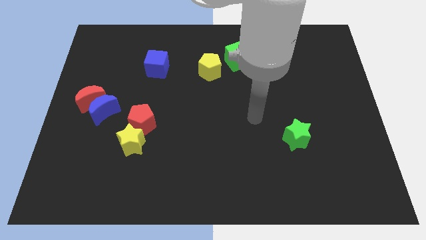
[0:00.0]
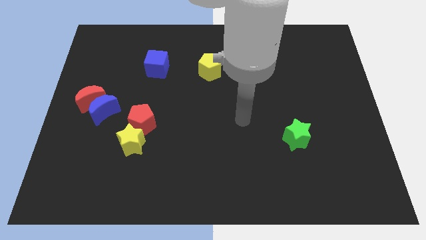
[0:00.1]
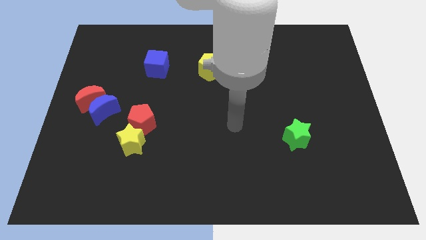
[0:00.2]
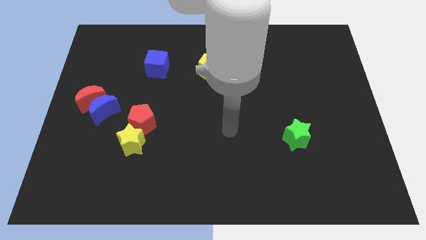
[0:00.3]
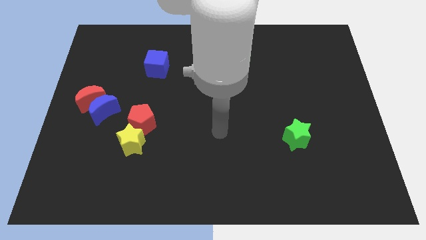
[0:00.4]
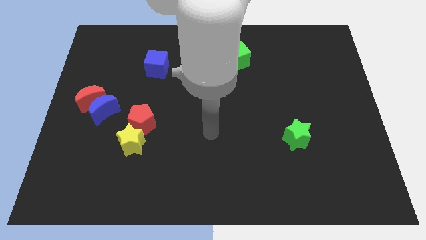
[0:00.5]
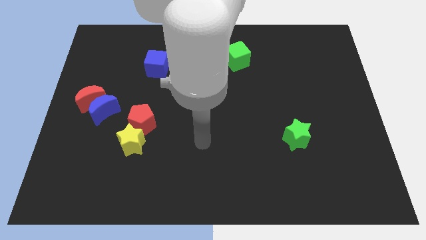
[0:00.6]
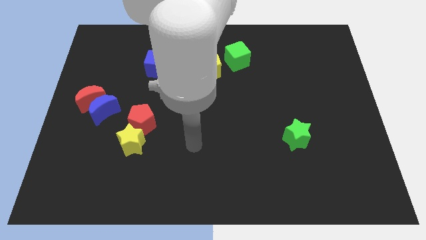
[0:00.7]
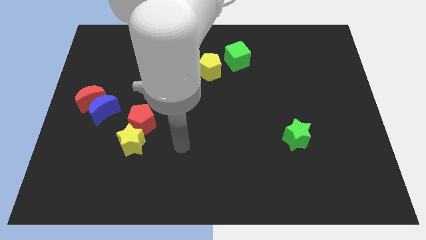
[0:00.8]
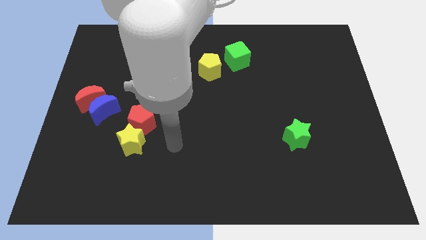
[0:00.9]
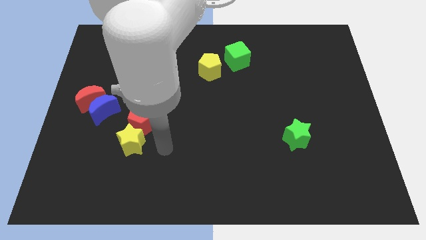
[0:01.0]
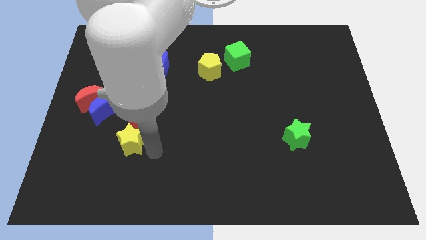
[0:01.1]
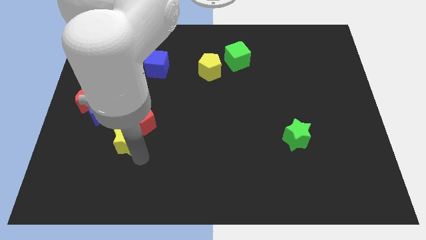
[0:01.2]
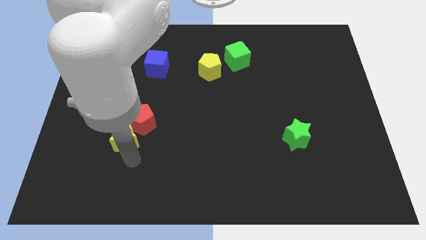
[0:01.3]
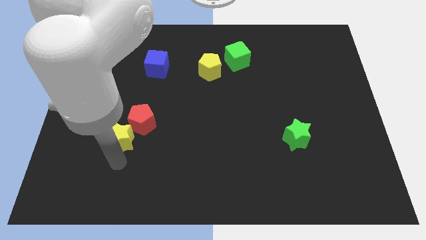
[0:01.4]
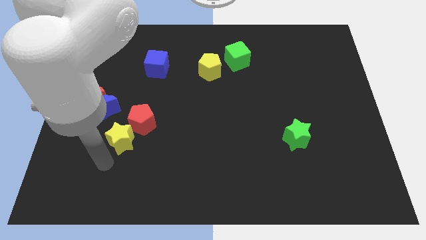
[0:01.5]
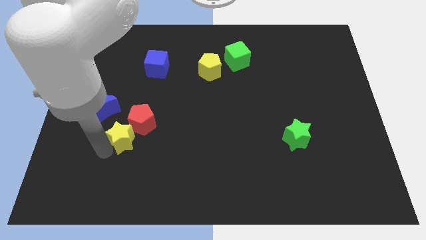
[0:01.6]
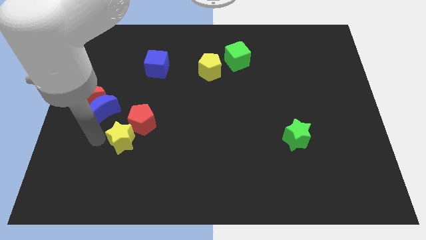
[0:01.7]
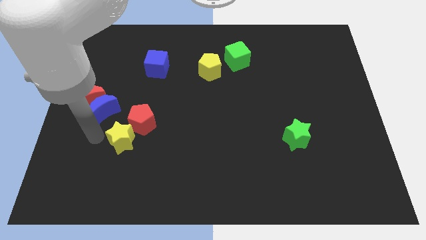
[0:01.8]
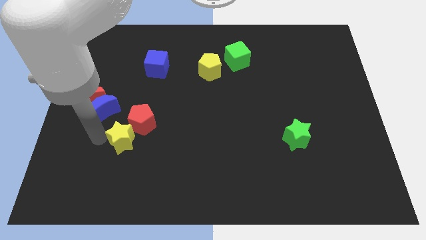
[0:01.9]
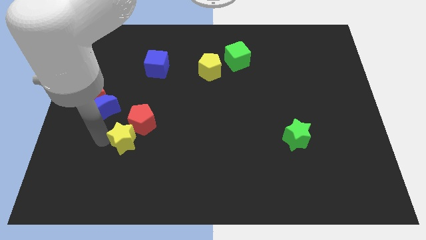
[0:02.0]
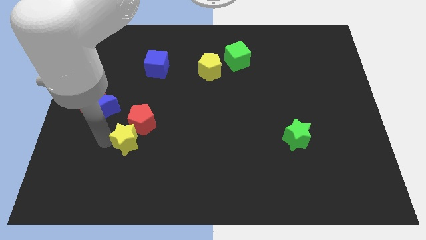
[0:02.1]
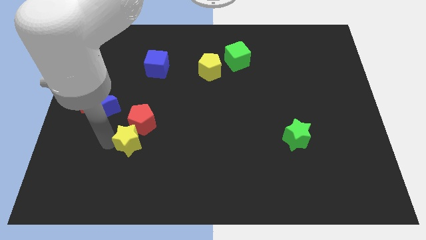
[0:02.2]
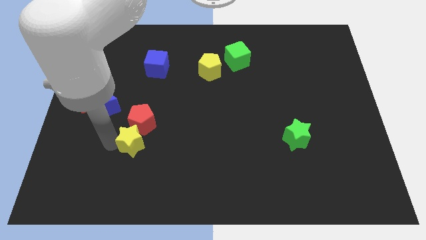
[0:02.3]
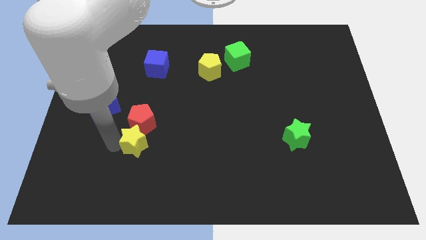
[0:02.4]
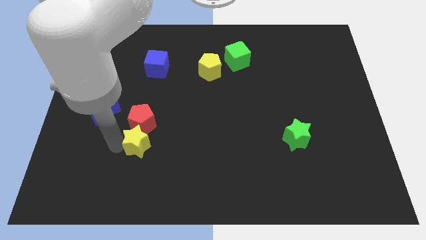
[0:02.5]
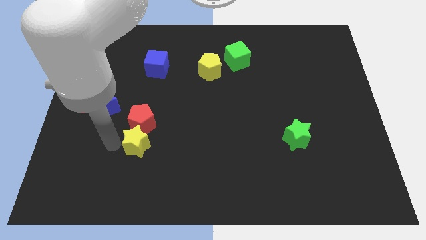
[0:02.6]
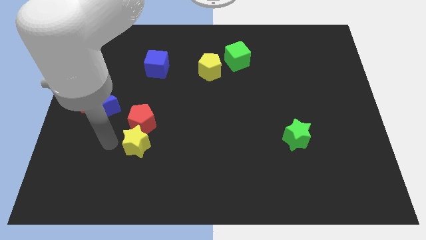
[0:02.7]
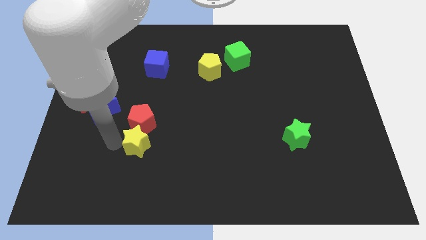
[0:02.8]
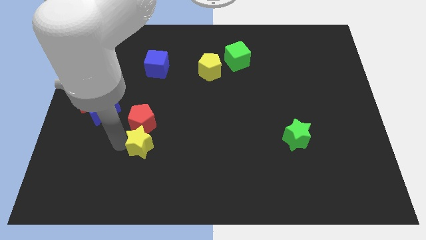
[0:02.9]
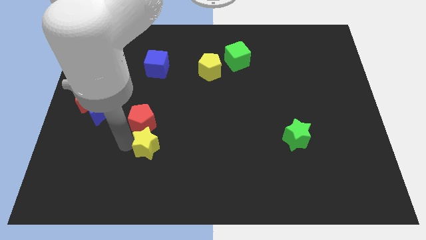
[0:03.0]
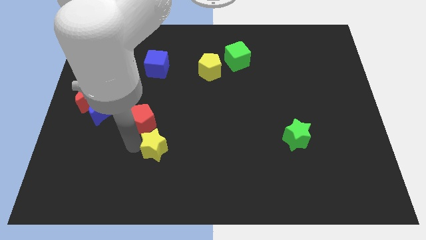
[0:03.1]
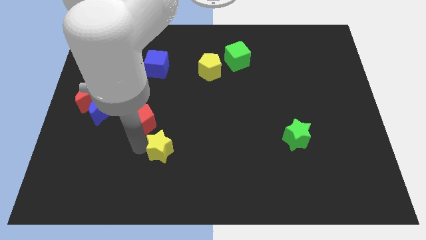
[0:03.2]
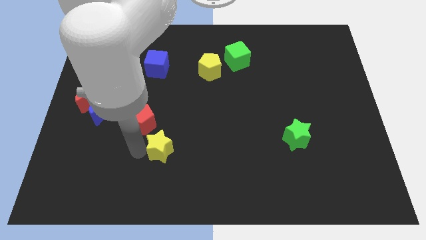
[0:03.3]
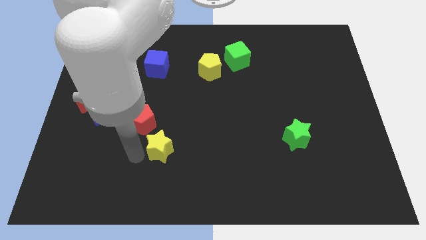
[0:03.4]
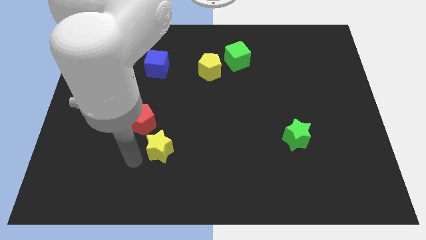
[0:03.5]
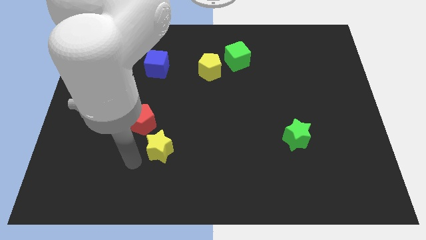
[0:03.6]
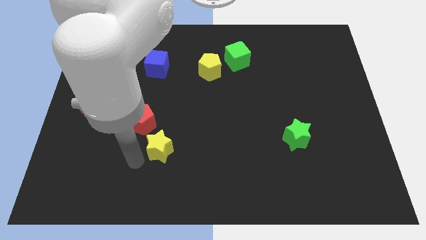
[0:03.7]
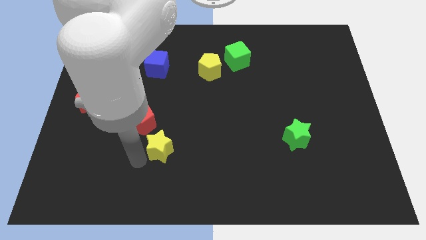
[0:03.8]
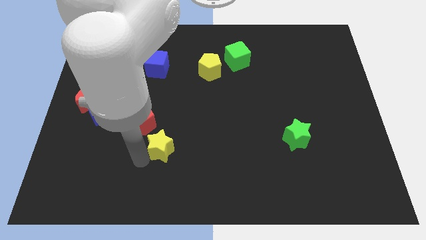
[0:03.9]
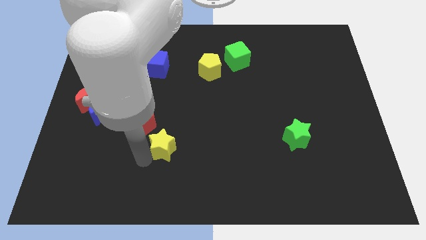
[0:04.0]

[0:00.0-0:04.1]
slide the yellow star to the right a bit

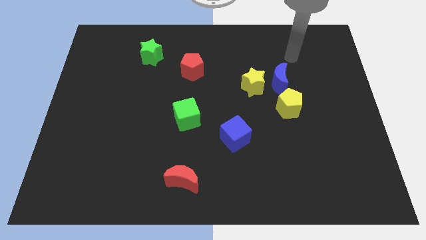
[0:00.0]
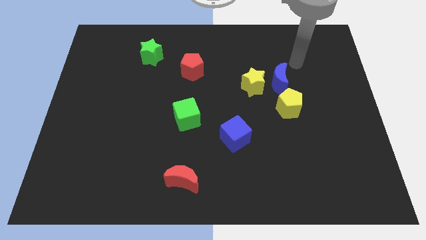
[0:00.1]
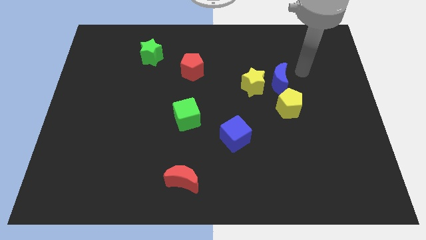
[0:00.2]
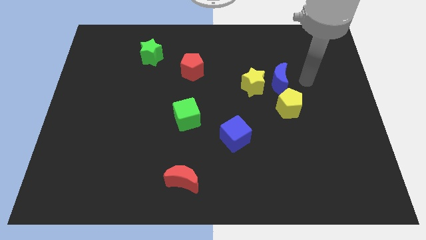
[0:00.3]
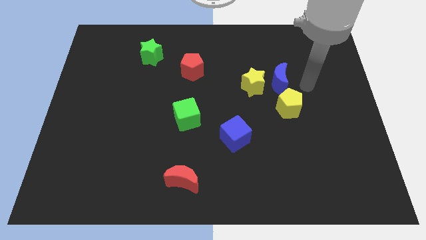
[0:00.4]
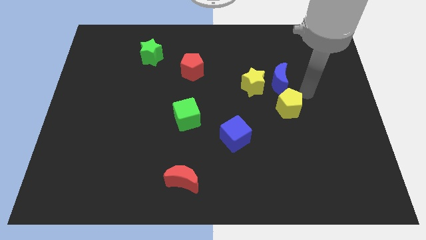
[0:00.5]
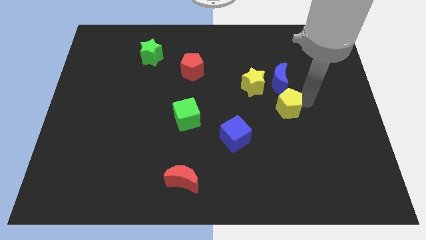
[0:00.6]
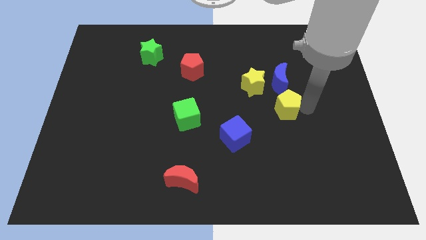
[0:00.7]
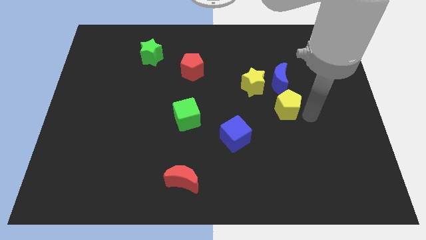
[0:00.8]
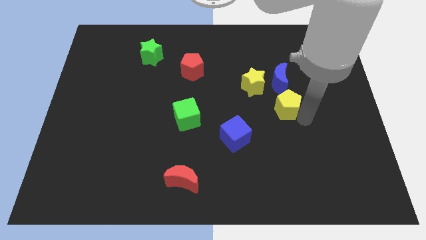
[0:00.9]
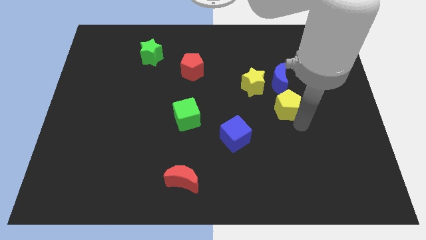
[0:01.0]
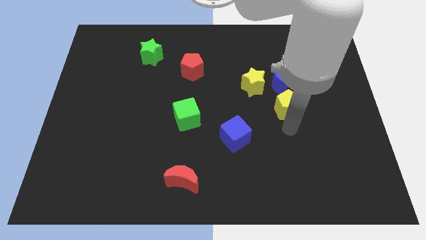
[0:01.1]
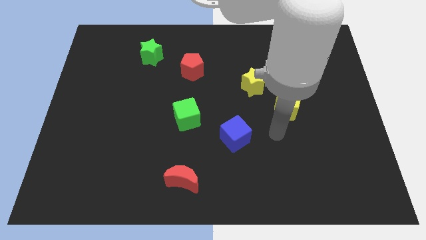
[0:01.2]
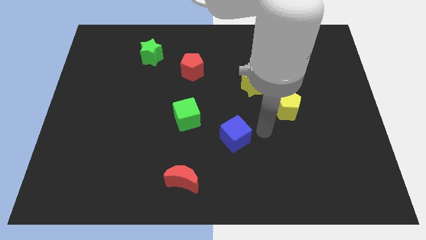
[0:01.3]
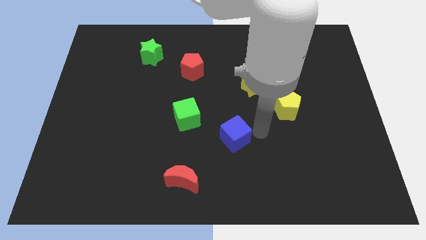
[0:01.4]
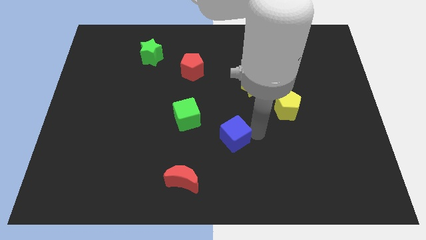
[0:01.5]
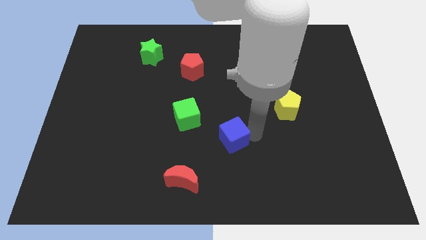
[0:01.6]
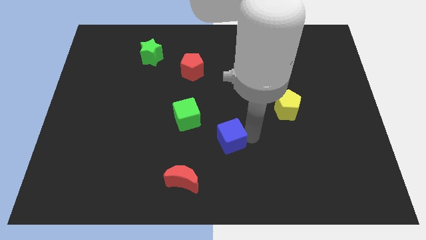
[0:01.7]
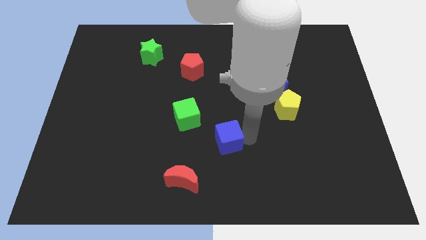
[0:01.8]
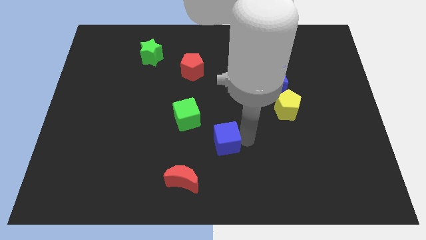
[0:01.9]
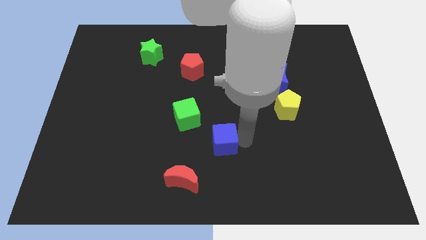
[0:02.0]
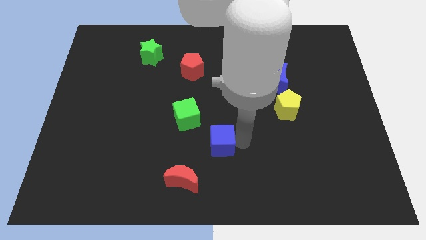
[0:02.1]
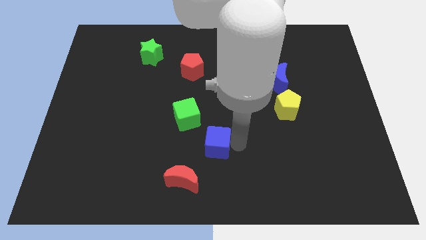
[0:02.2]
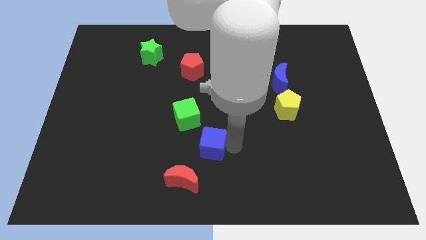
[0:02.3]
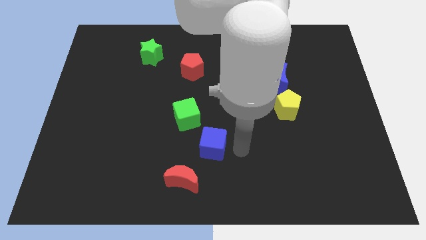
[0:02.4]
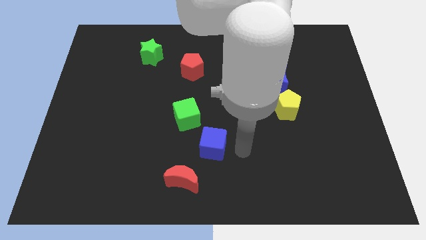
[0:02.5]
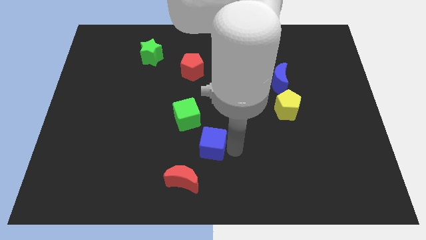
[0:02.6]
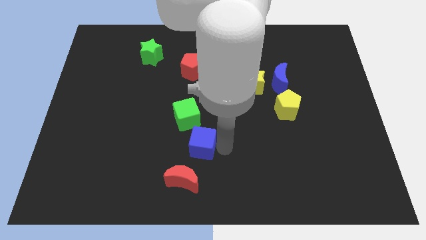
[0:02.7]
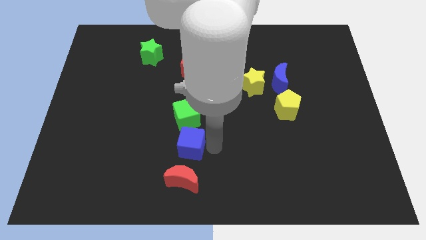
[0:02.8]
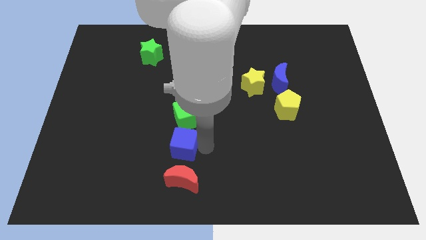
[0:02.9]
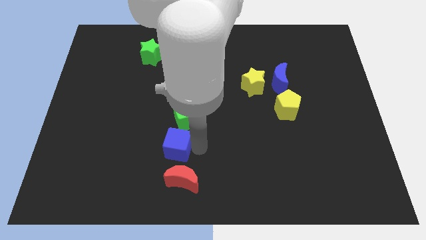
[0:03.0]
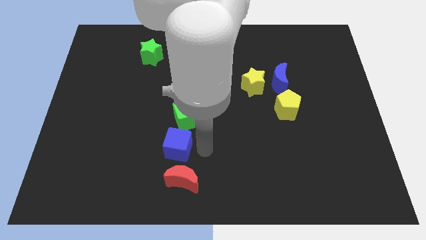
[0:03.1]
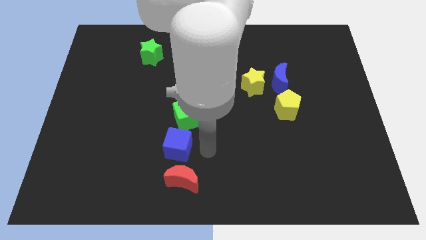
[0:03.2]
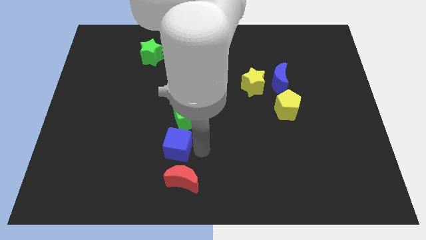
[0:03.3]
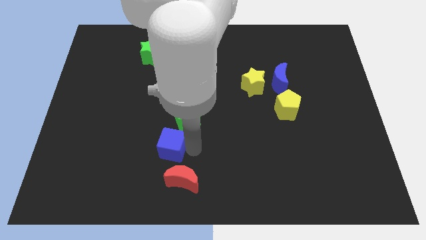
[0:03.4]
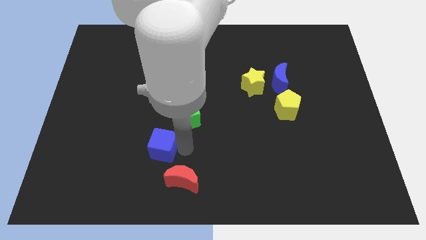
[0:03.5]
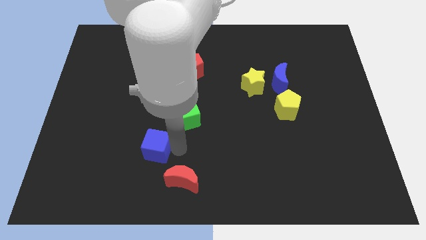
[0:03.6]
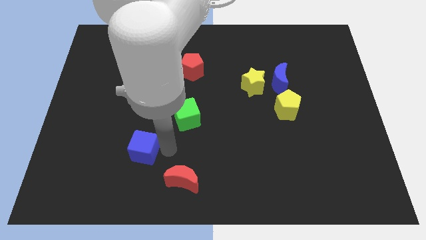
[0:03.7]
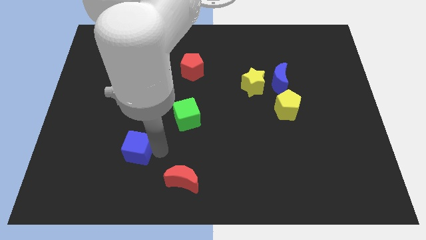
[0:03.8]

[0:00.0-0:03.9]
move the blue cube left

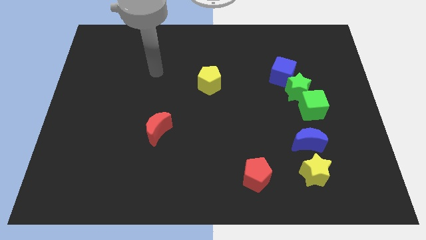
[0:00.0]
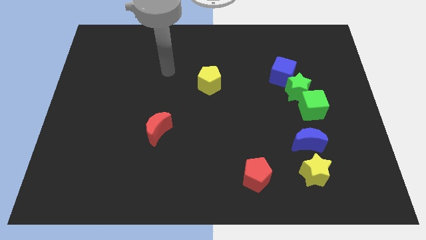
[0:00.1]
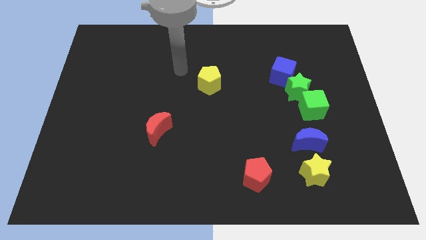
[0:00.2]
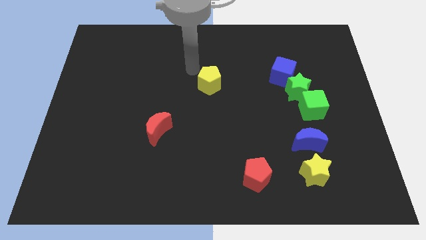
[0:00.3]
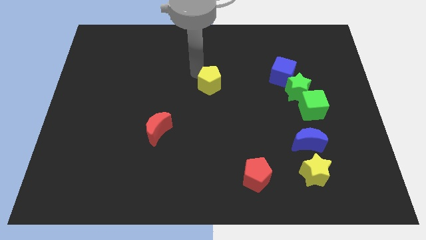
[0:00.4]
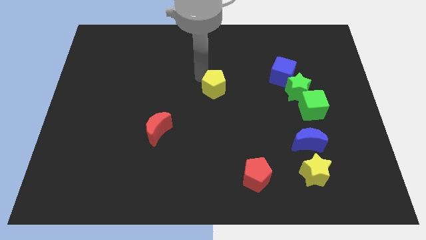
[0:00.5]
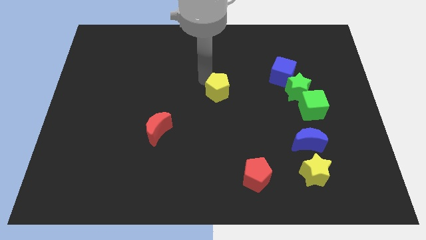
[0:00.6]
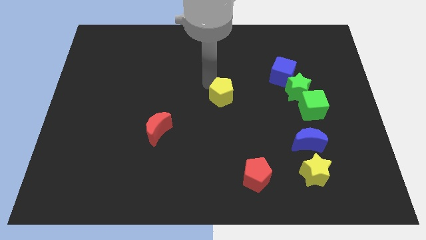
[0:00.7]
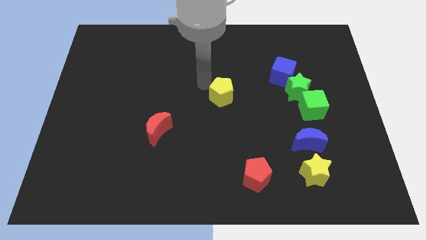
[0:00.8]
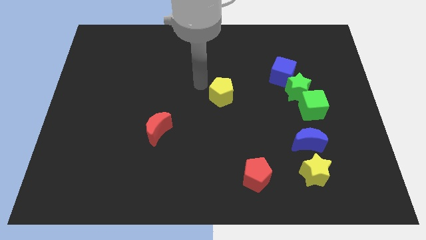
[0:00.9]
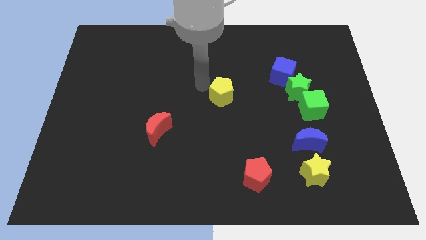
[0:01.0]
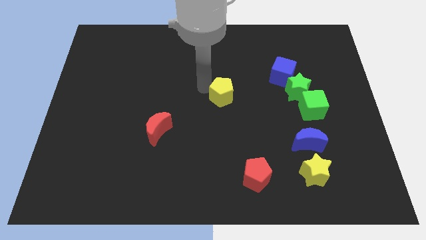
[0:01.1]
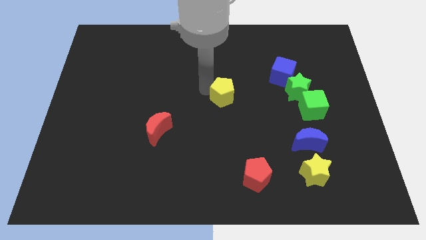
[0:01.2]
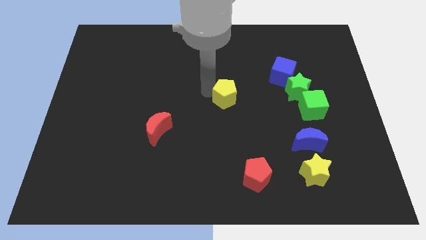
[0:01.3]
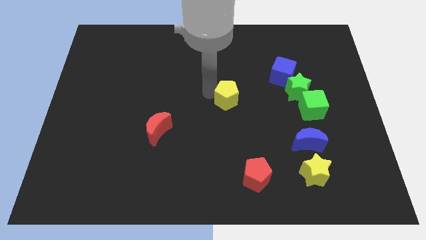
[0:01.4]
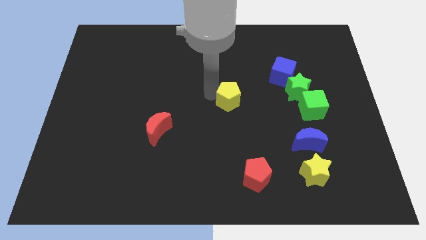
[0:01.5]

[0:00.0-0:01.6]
slide the yellow pentagon a little downwards and right
